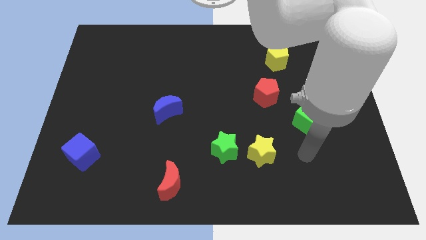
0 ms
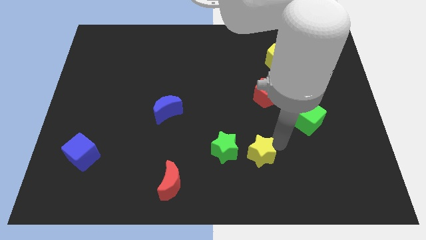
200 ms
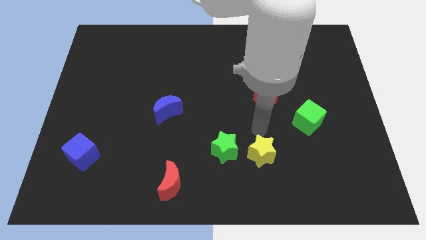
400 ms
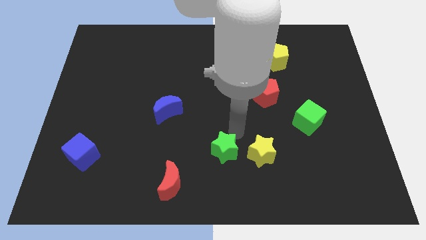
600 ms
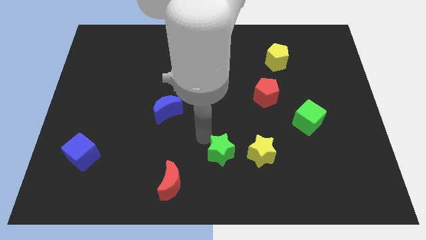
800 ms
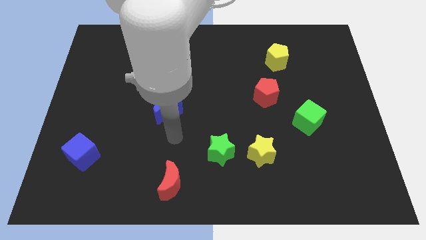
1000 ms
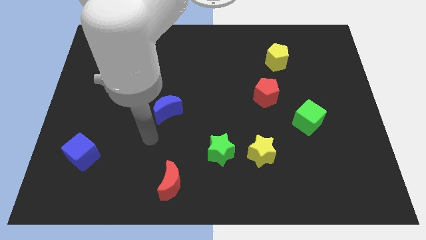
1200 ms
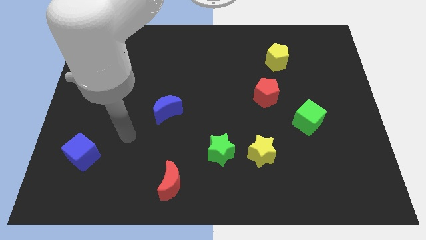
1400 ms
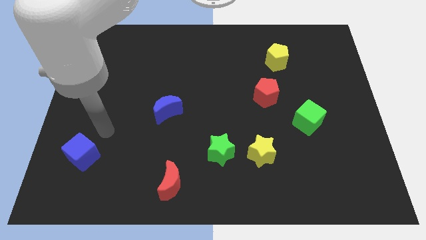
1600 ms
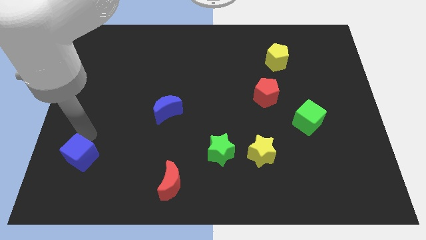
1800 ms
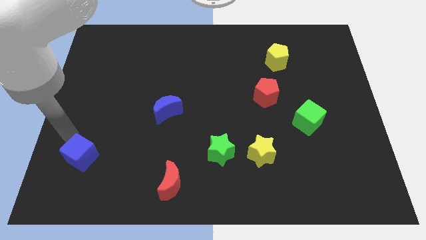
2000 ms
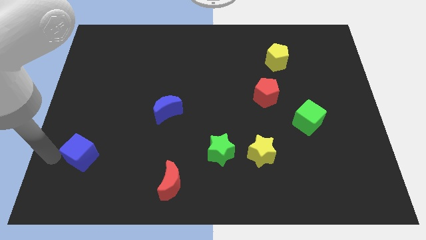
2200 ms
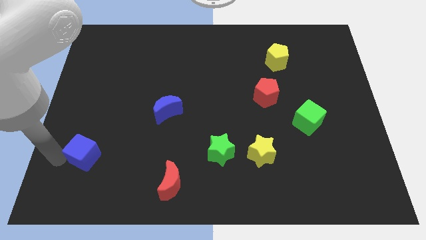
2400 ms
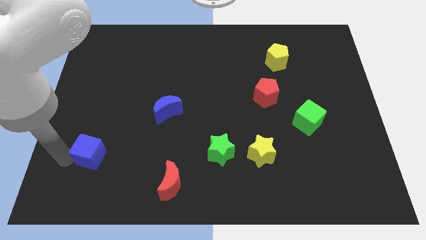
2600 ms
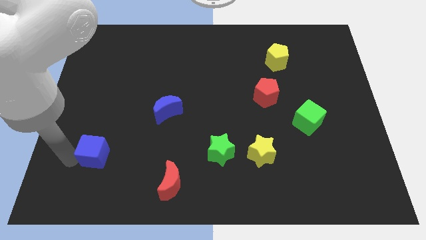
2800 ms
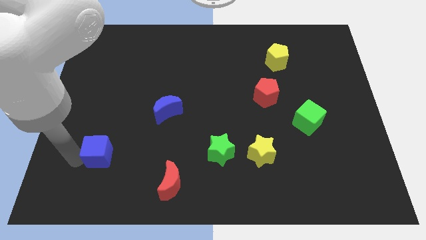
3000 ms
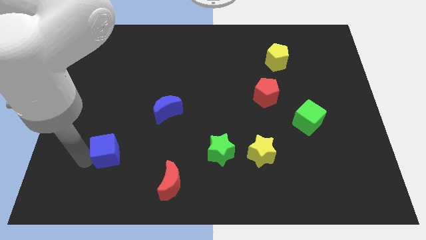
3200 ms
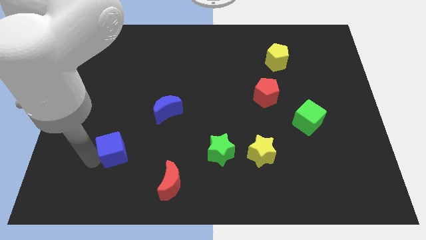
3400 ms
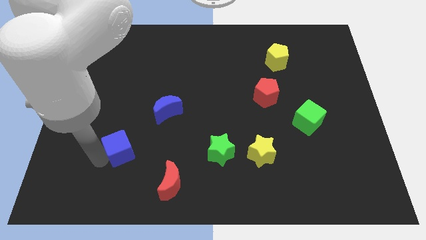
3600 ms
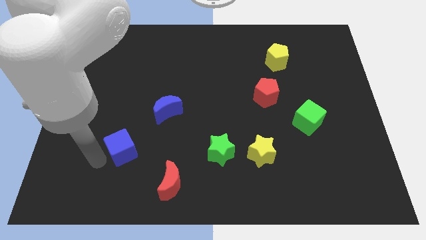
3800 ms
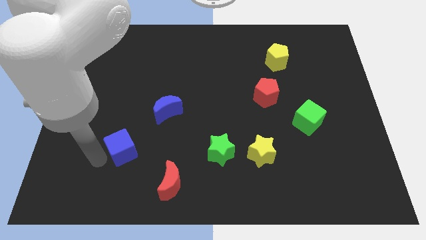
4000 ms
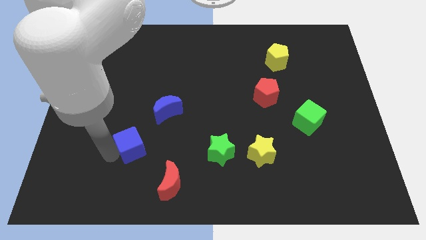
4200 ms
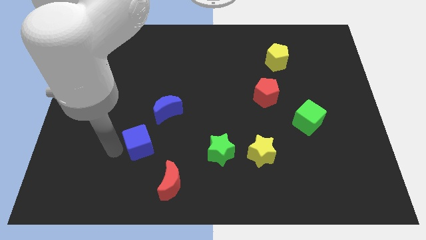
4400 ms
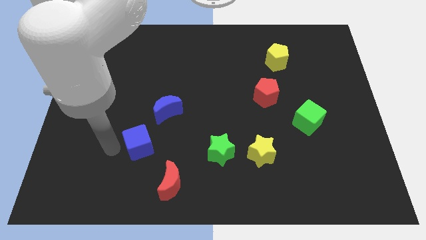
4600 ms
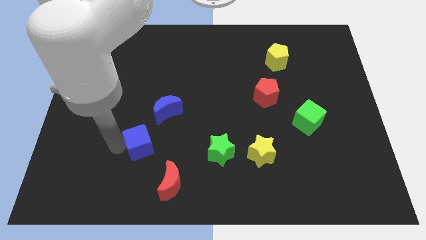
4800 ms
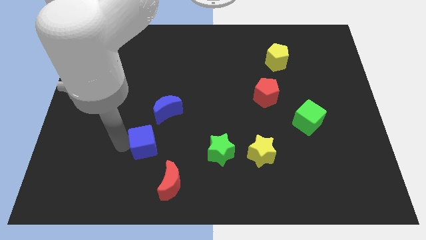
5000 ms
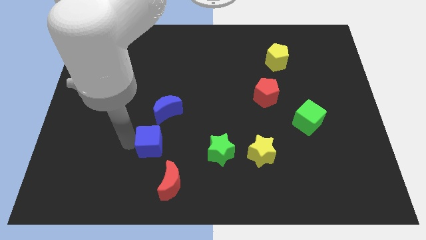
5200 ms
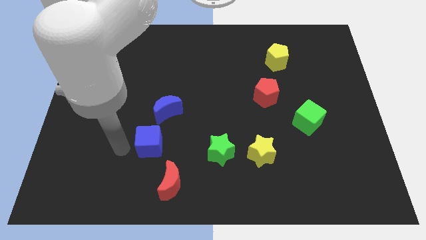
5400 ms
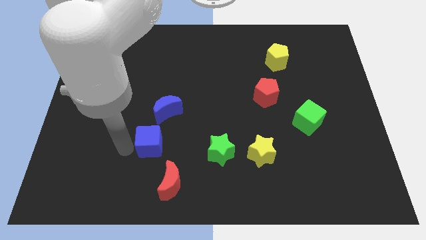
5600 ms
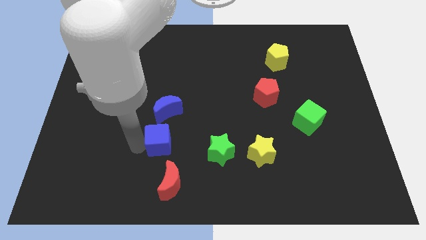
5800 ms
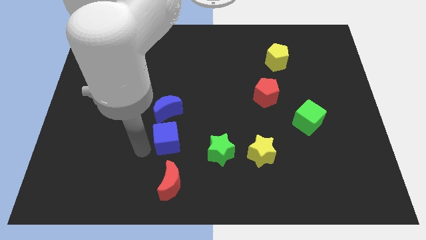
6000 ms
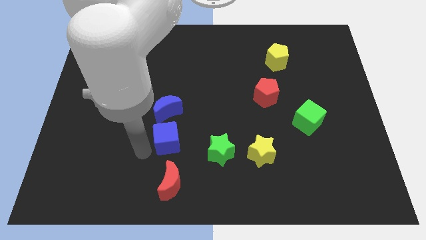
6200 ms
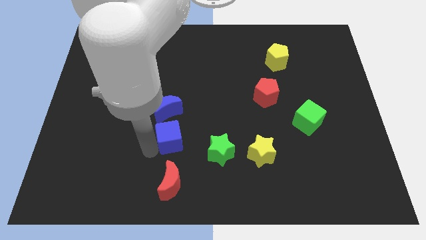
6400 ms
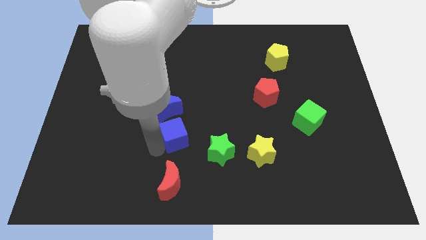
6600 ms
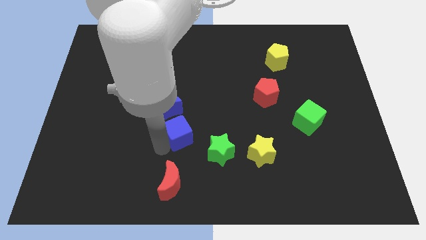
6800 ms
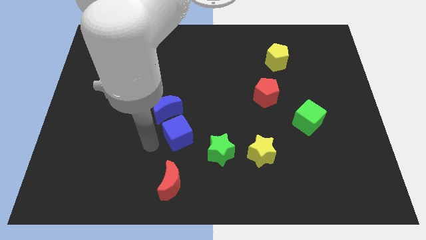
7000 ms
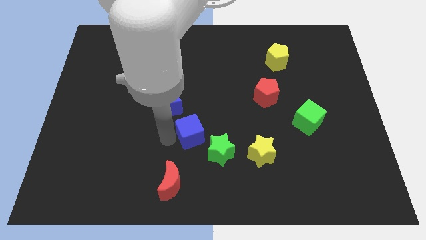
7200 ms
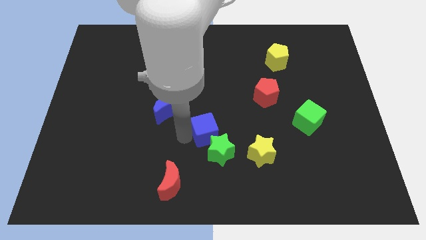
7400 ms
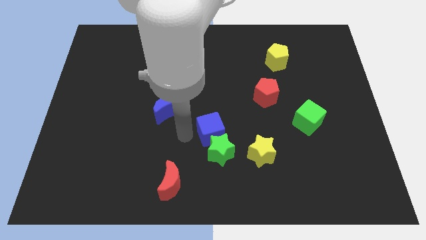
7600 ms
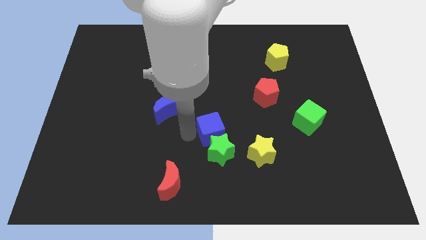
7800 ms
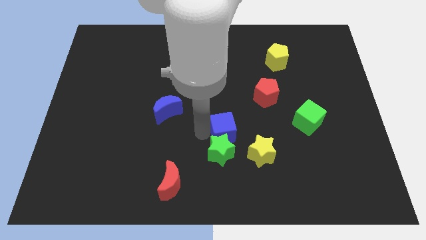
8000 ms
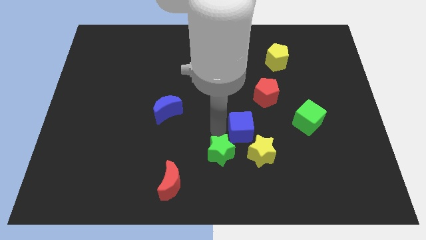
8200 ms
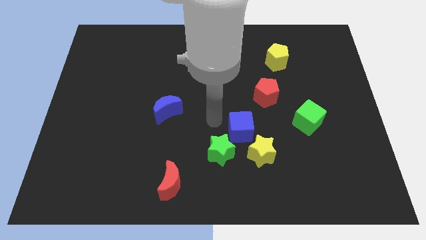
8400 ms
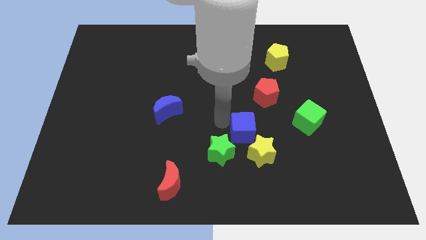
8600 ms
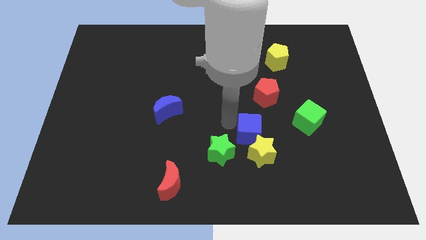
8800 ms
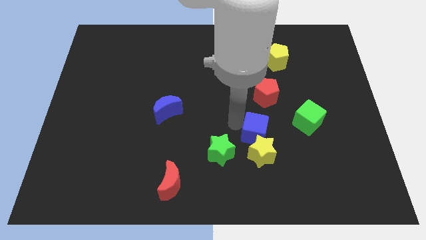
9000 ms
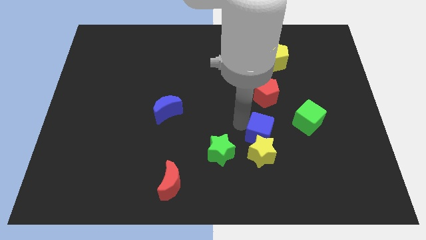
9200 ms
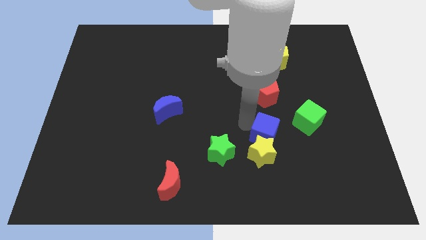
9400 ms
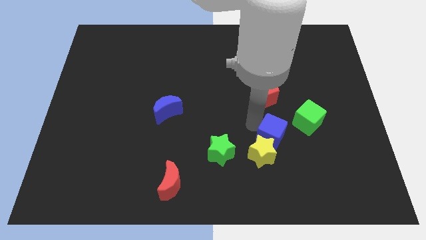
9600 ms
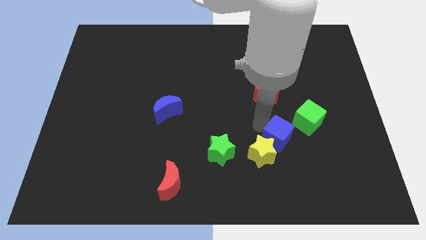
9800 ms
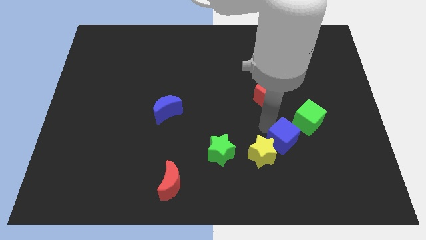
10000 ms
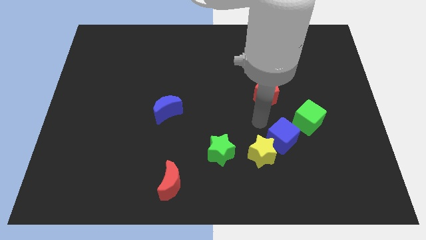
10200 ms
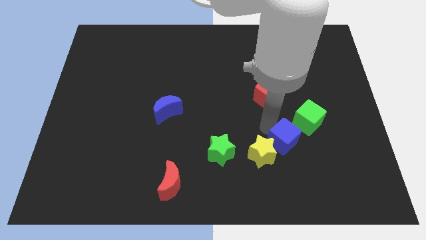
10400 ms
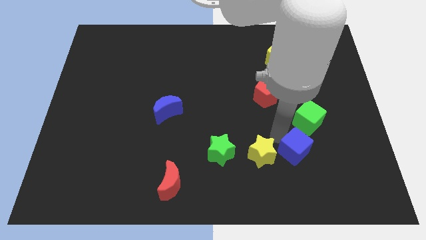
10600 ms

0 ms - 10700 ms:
push the blue cube to the bottom side of the green cube

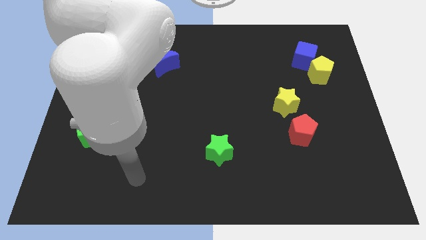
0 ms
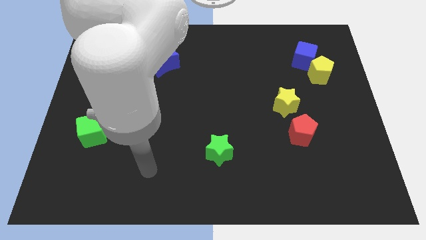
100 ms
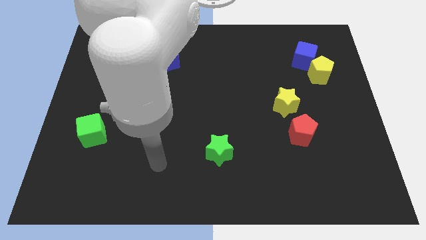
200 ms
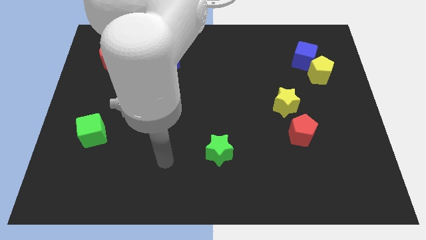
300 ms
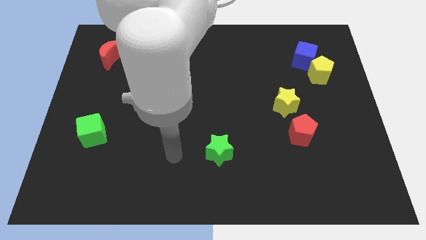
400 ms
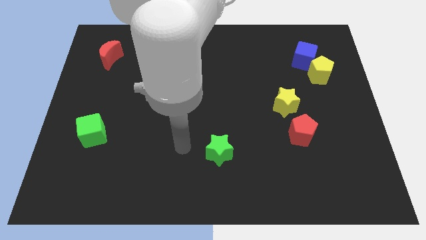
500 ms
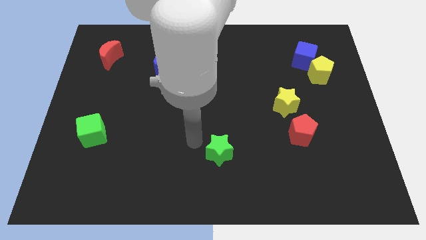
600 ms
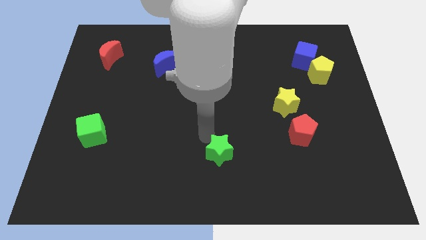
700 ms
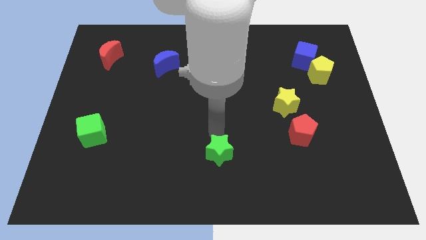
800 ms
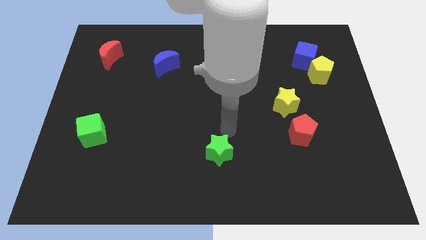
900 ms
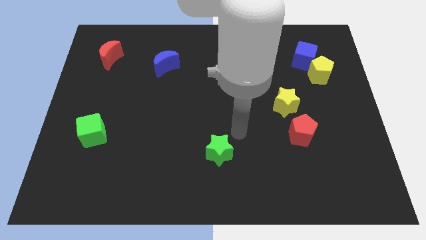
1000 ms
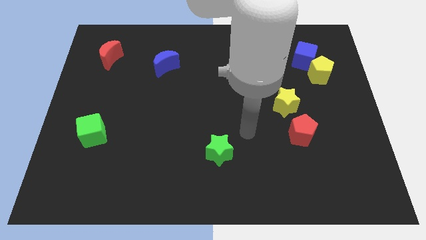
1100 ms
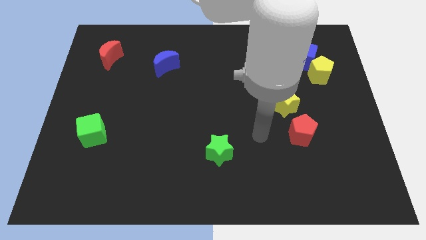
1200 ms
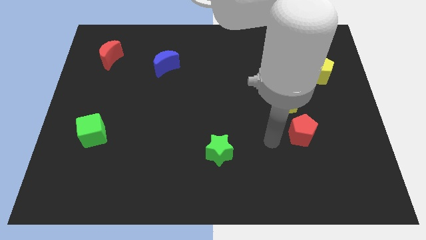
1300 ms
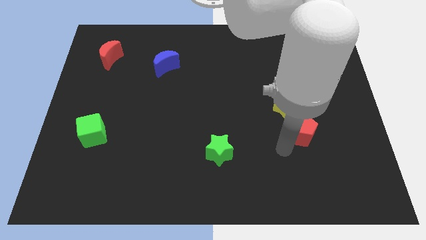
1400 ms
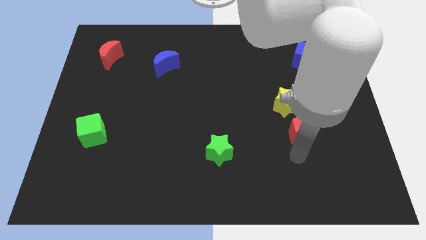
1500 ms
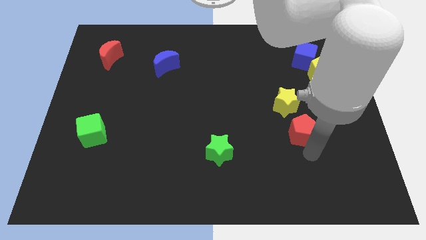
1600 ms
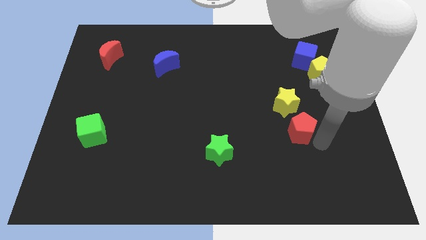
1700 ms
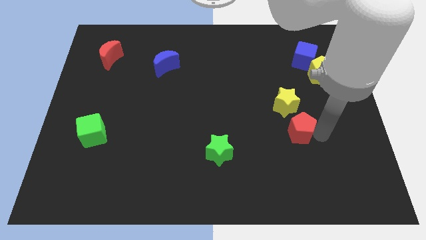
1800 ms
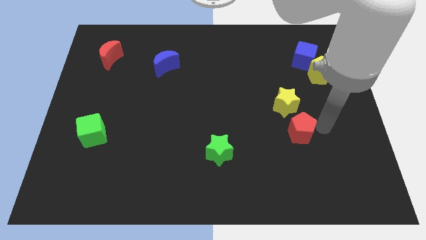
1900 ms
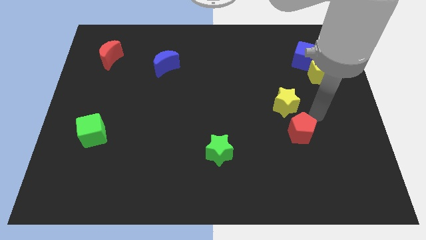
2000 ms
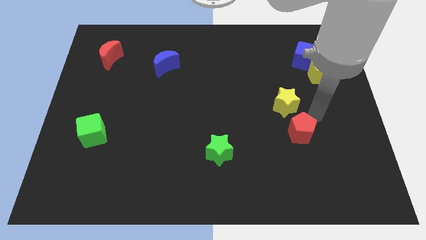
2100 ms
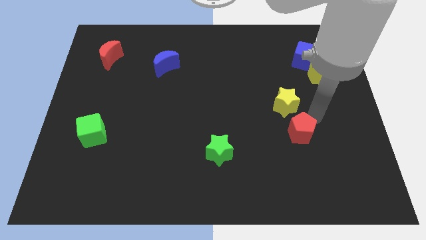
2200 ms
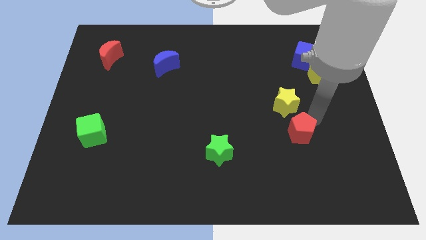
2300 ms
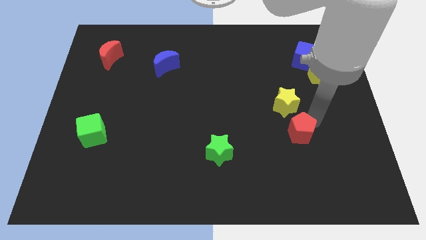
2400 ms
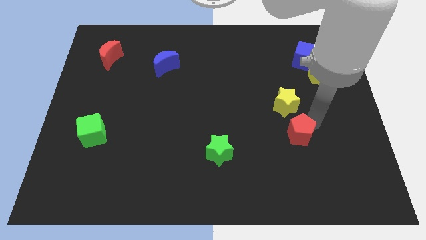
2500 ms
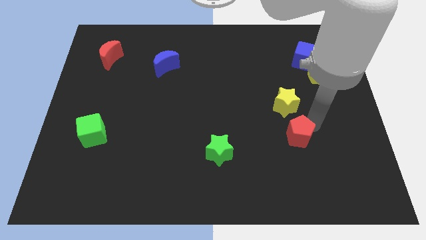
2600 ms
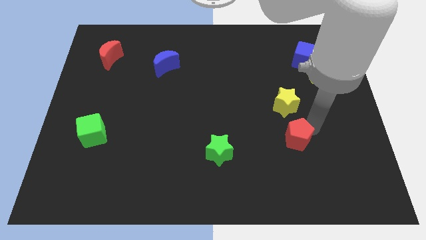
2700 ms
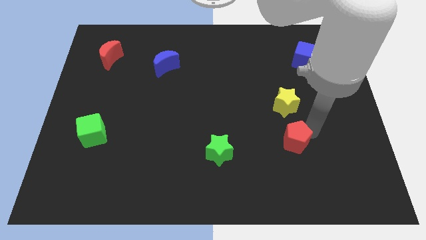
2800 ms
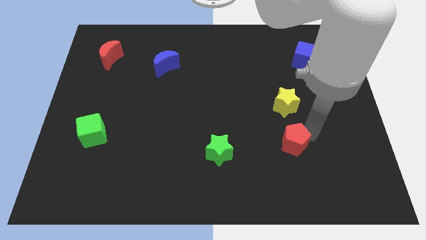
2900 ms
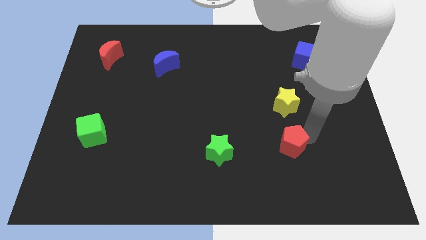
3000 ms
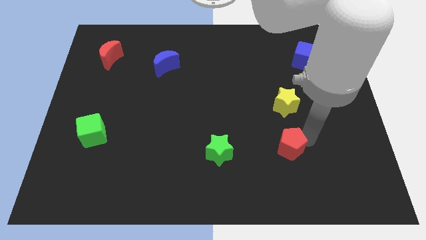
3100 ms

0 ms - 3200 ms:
push the red pentagon to the right side of the green star
